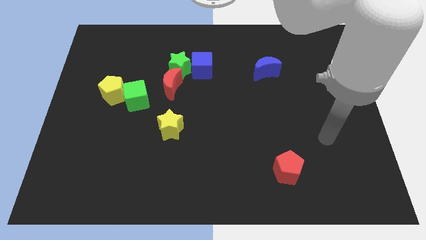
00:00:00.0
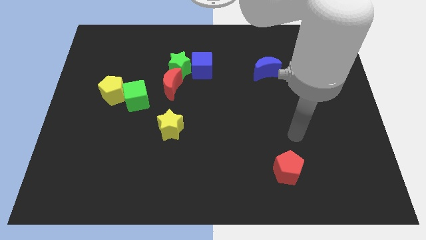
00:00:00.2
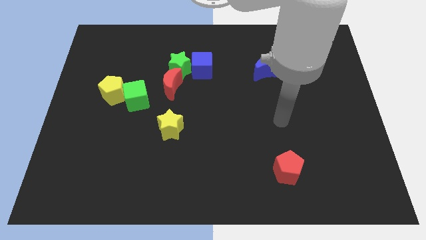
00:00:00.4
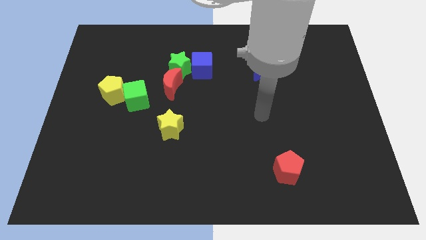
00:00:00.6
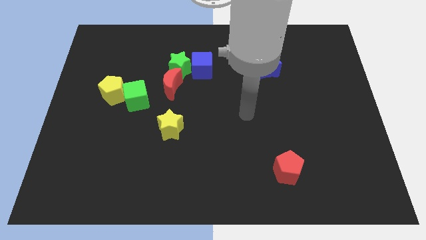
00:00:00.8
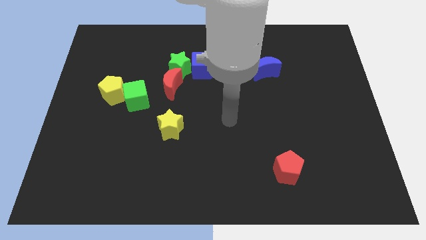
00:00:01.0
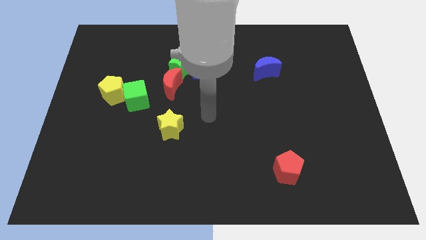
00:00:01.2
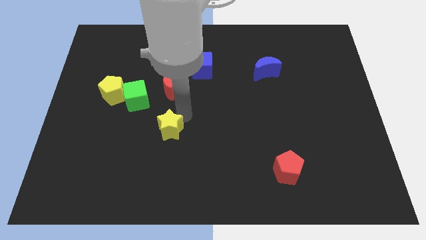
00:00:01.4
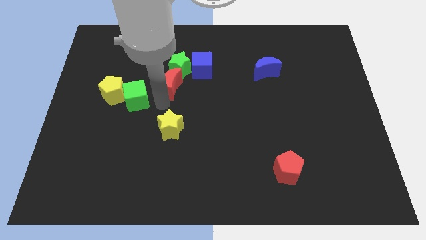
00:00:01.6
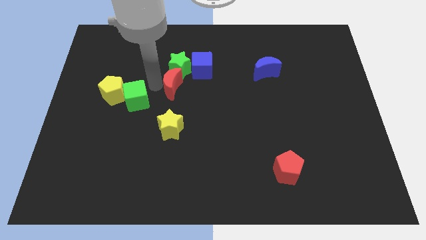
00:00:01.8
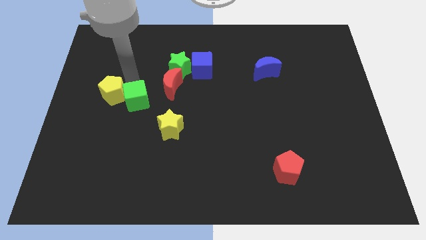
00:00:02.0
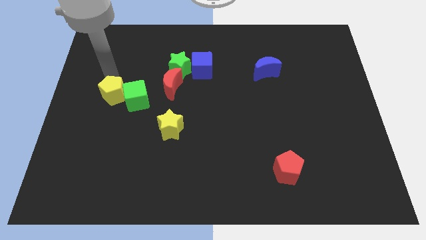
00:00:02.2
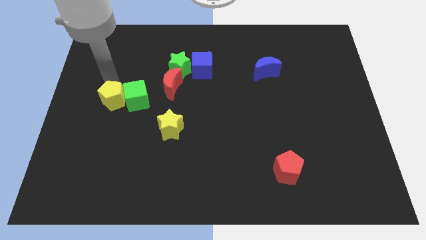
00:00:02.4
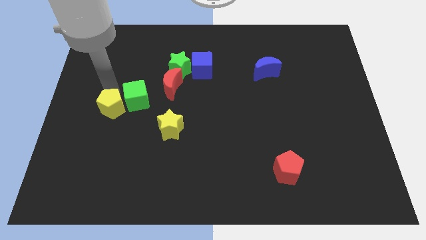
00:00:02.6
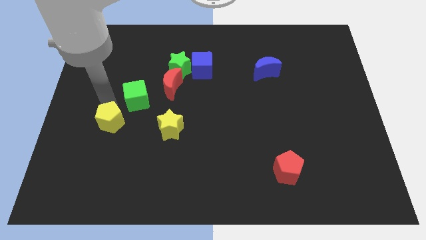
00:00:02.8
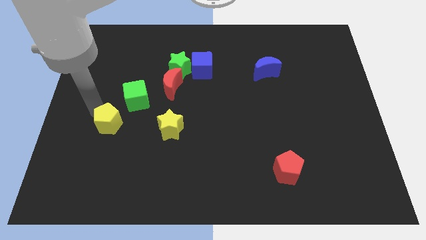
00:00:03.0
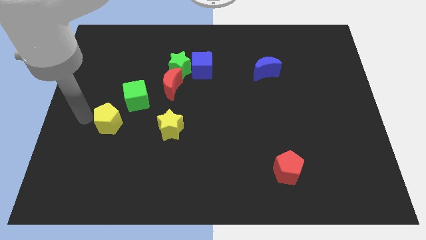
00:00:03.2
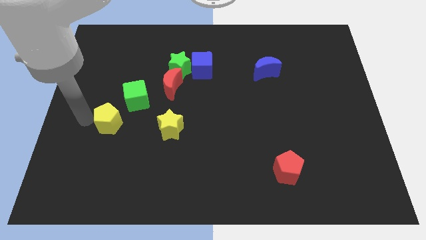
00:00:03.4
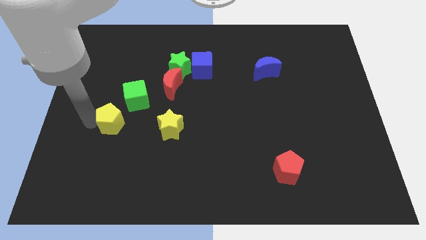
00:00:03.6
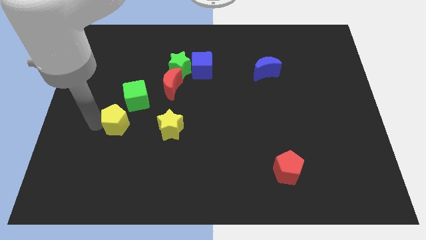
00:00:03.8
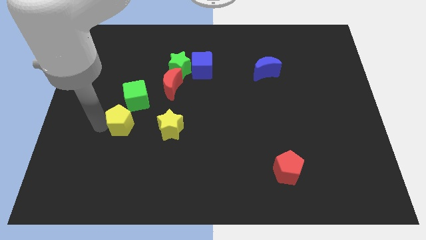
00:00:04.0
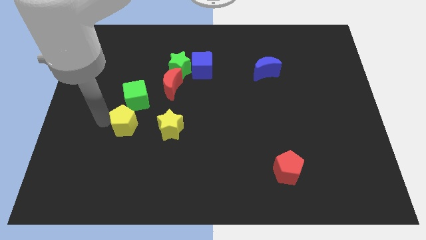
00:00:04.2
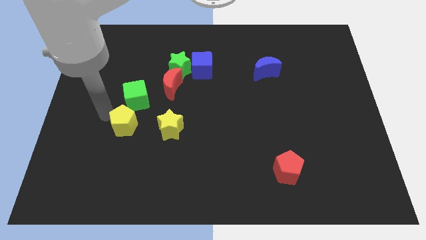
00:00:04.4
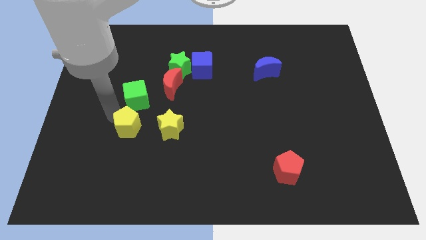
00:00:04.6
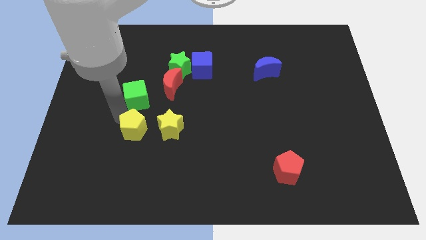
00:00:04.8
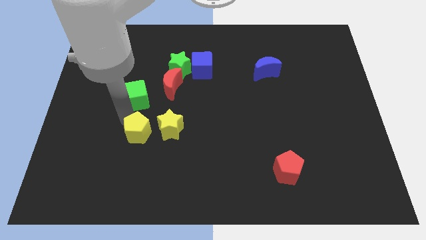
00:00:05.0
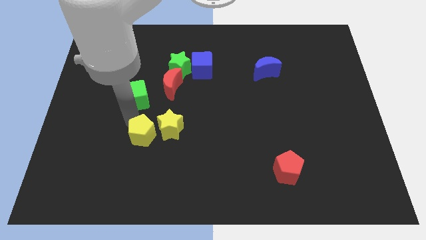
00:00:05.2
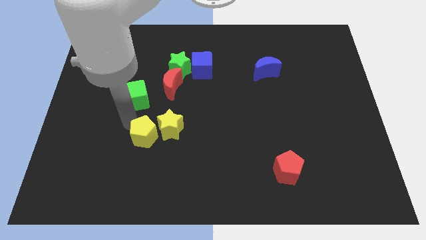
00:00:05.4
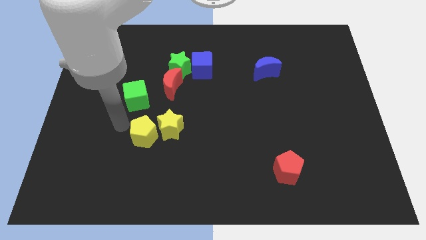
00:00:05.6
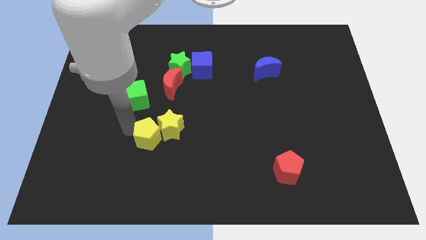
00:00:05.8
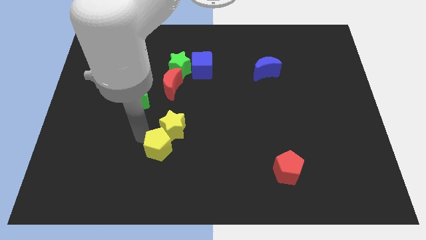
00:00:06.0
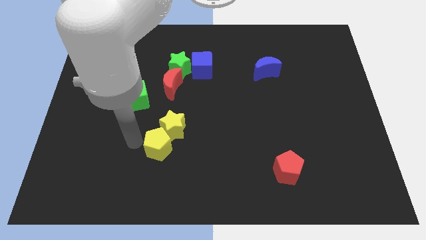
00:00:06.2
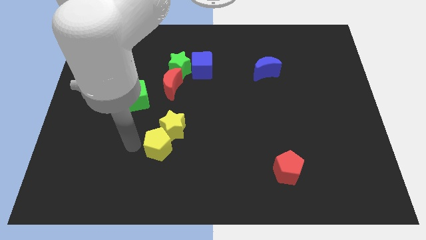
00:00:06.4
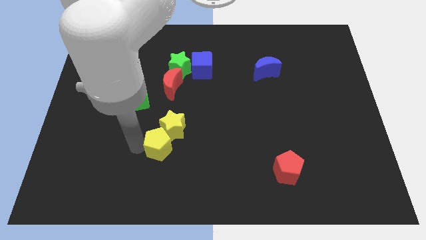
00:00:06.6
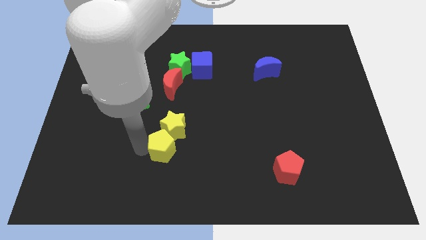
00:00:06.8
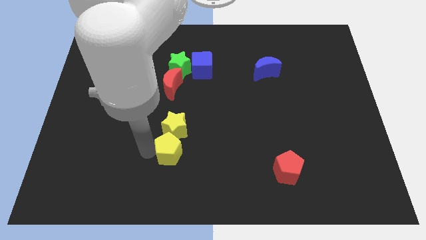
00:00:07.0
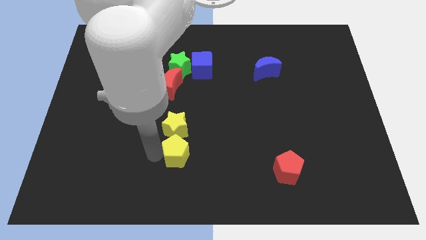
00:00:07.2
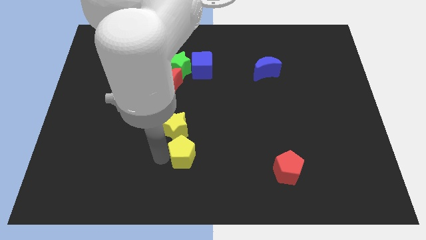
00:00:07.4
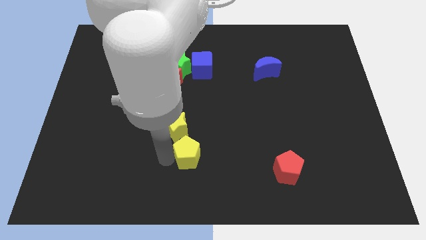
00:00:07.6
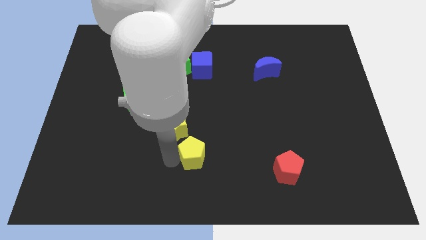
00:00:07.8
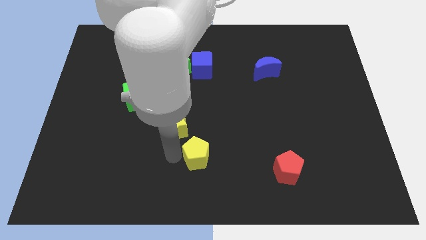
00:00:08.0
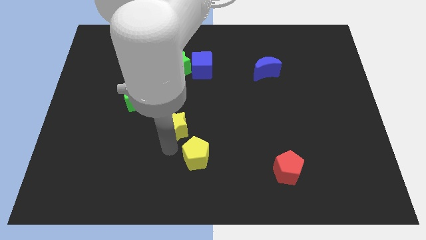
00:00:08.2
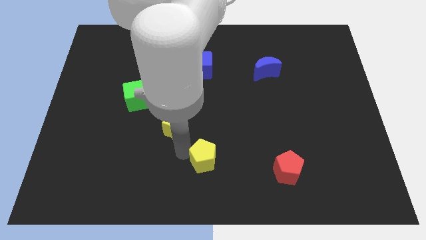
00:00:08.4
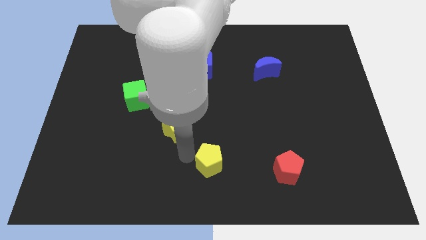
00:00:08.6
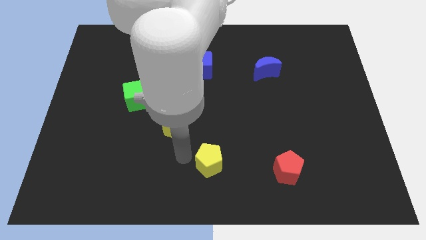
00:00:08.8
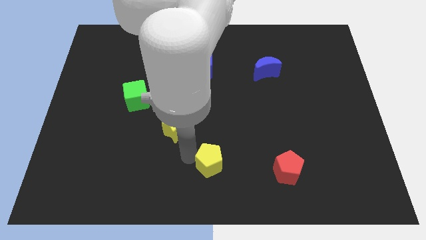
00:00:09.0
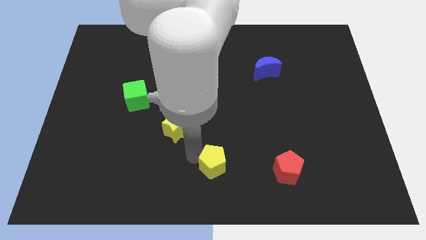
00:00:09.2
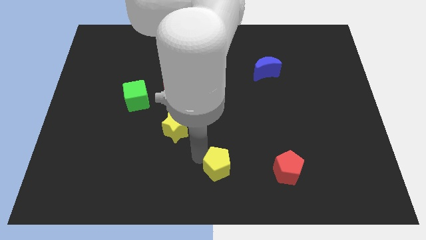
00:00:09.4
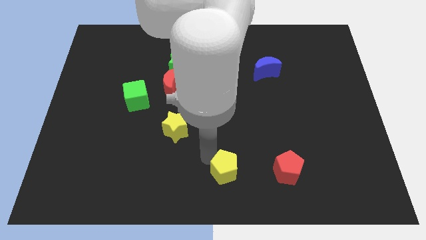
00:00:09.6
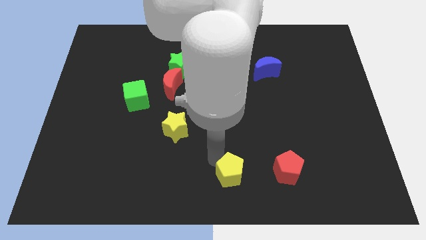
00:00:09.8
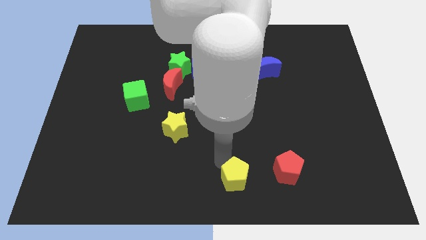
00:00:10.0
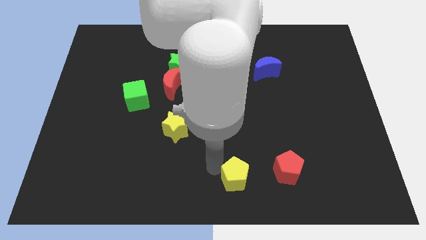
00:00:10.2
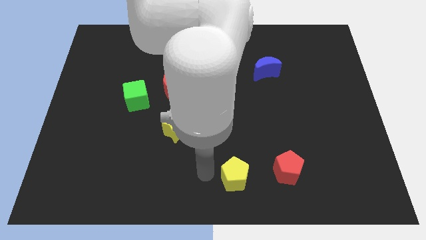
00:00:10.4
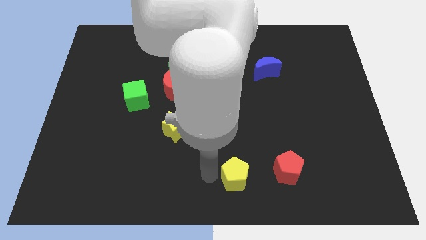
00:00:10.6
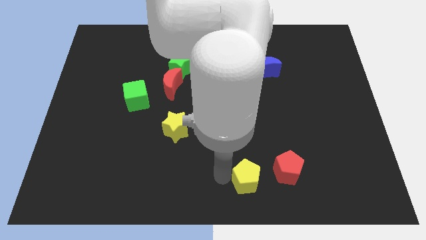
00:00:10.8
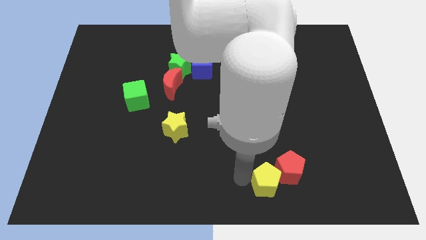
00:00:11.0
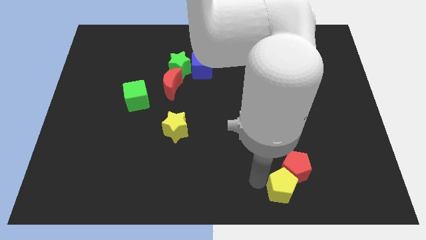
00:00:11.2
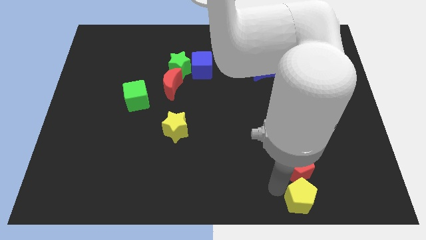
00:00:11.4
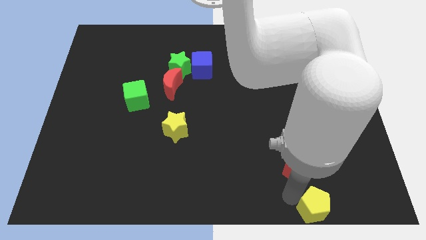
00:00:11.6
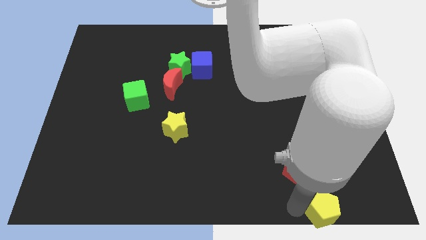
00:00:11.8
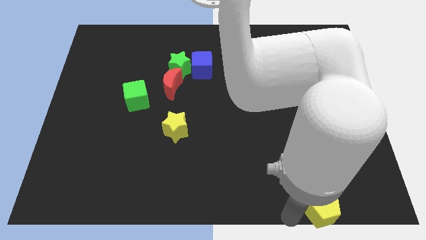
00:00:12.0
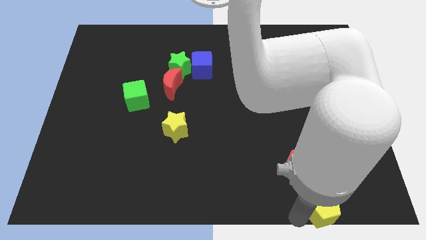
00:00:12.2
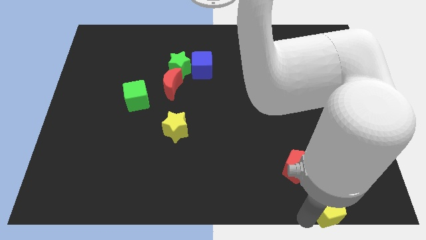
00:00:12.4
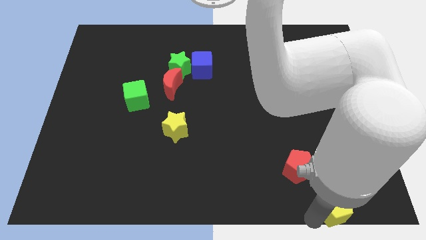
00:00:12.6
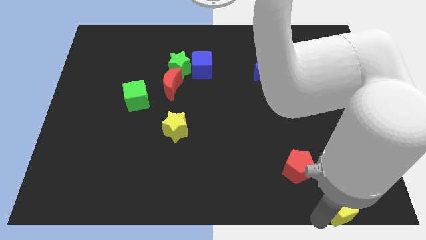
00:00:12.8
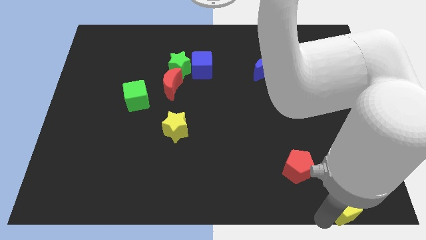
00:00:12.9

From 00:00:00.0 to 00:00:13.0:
slide the yellow pentagon to the bottom right

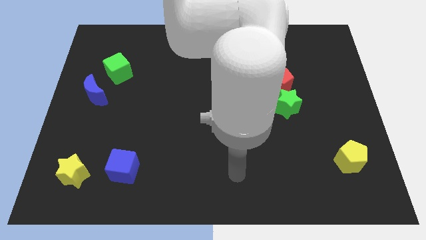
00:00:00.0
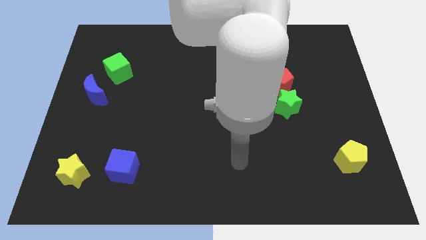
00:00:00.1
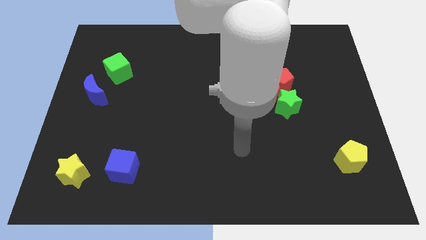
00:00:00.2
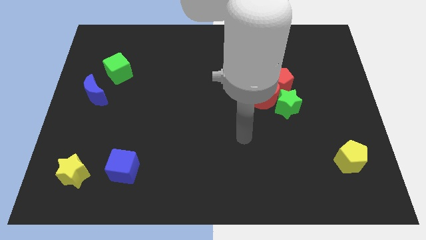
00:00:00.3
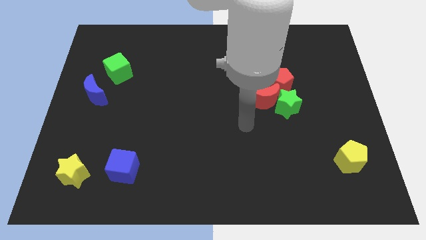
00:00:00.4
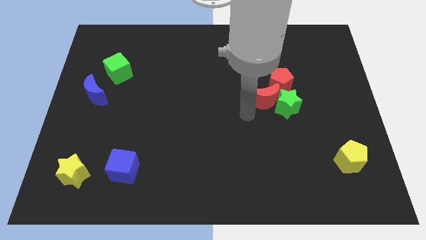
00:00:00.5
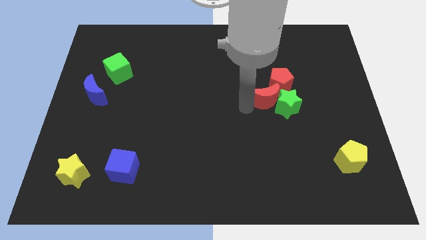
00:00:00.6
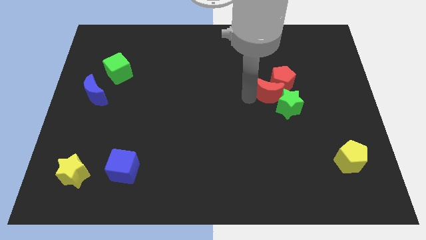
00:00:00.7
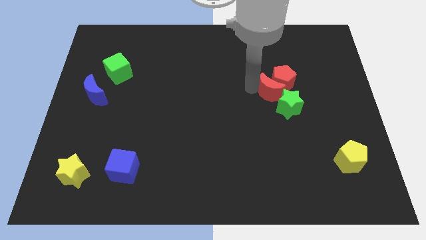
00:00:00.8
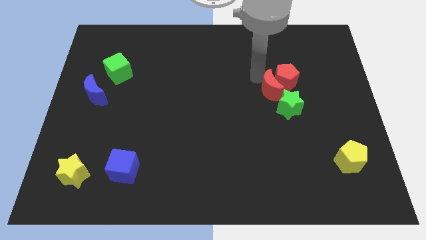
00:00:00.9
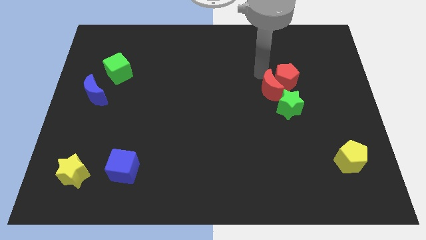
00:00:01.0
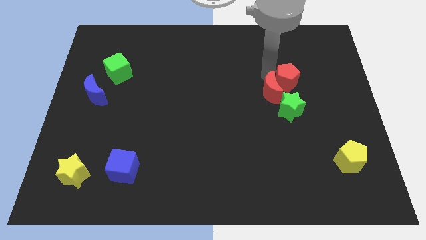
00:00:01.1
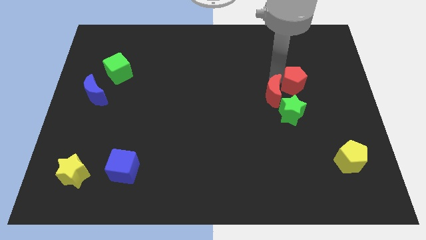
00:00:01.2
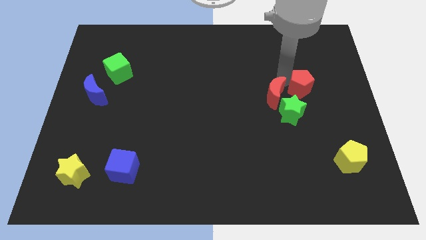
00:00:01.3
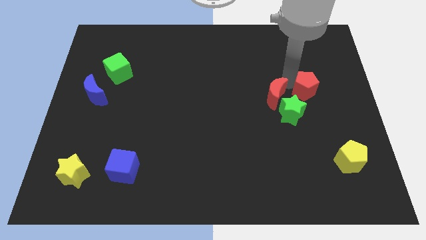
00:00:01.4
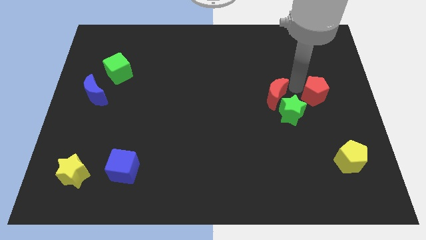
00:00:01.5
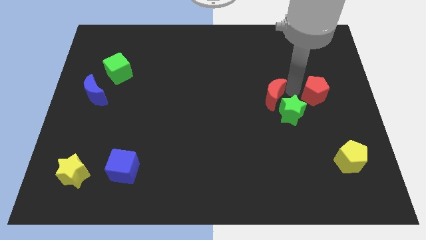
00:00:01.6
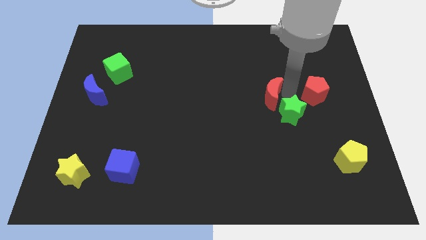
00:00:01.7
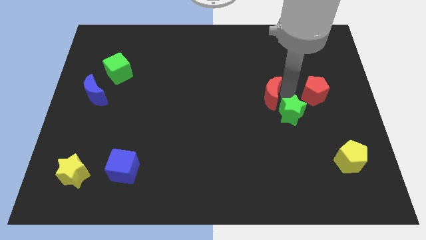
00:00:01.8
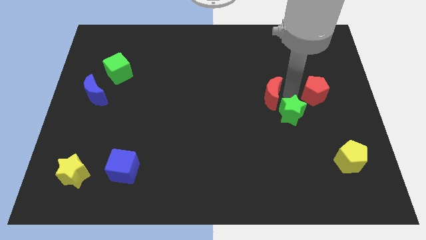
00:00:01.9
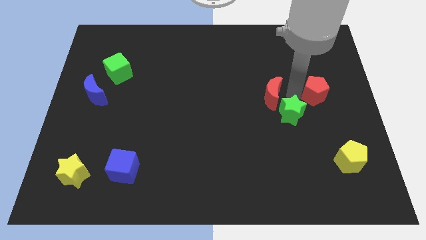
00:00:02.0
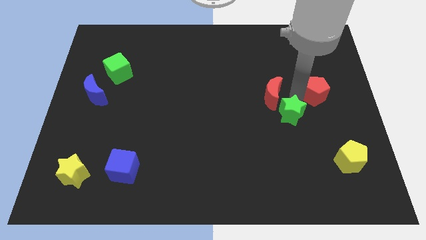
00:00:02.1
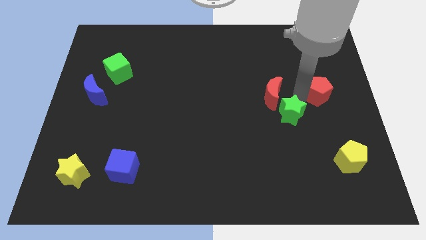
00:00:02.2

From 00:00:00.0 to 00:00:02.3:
move the red pentagon to the right side
